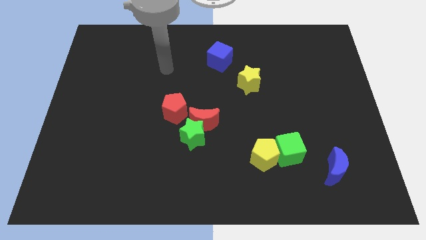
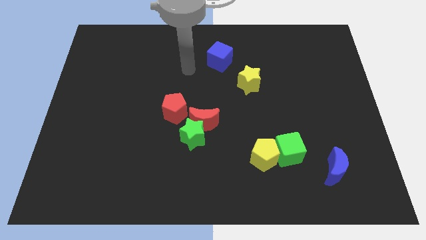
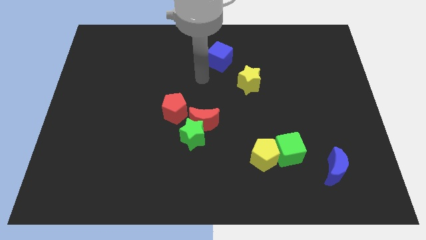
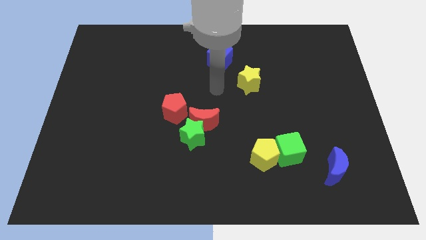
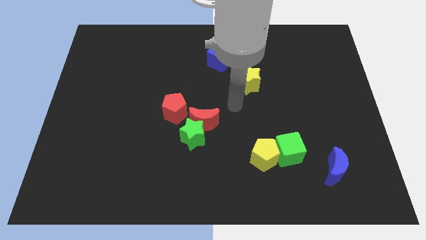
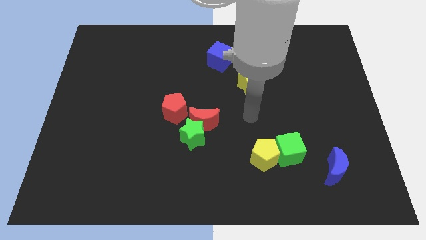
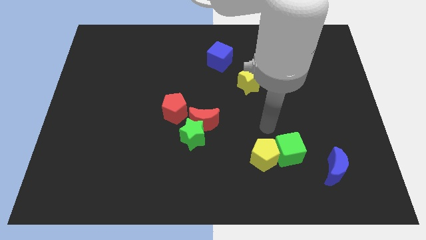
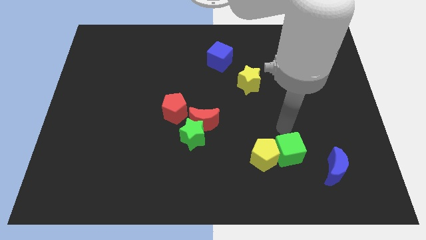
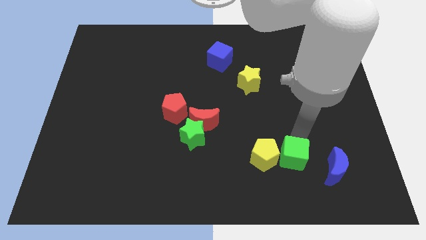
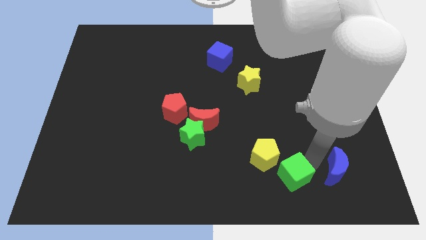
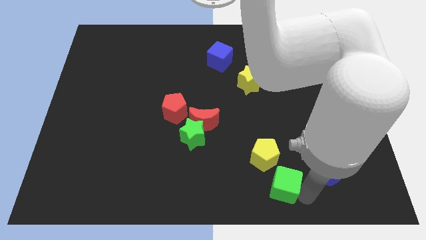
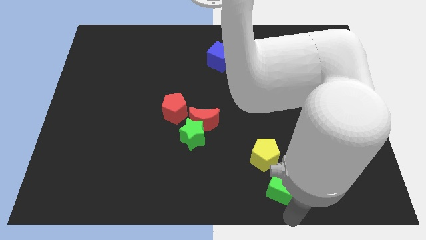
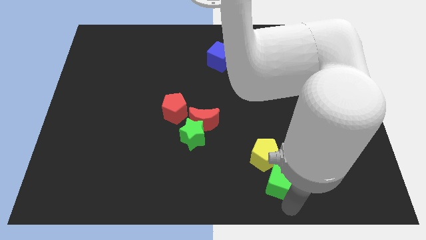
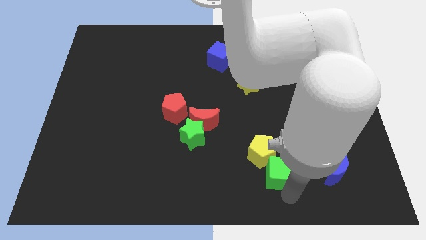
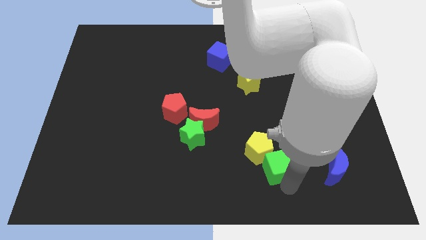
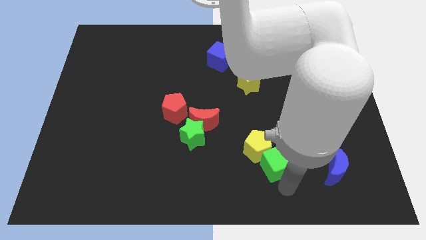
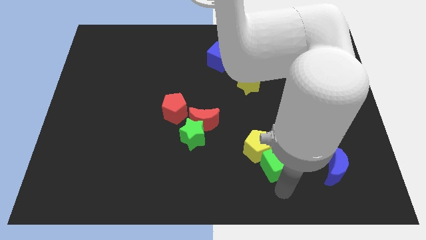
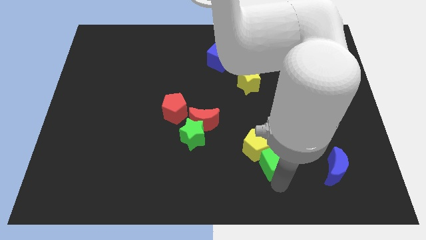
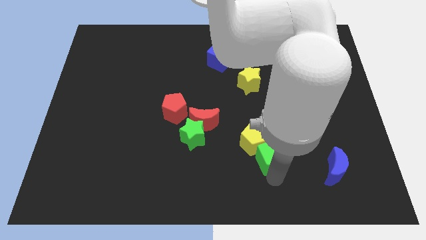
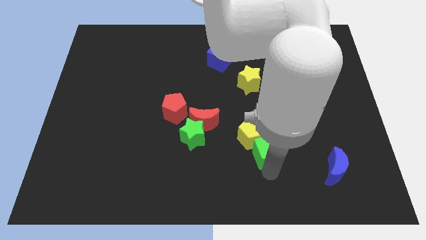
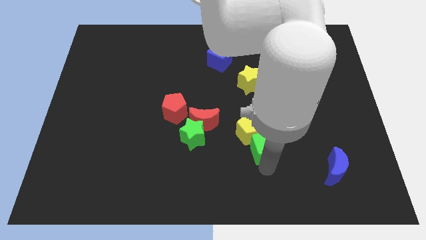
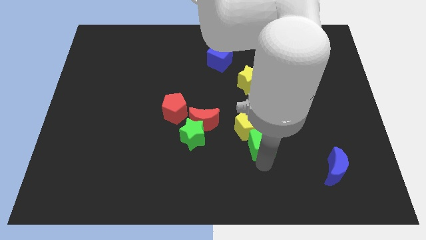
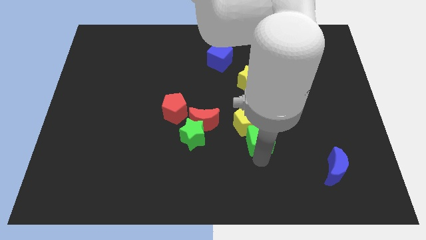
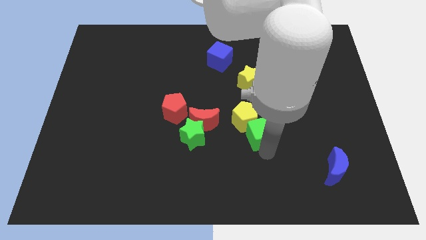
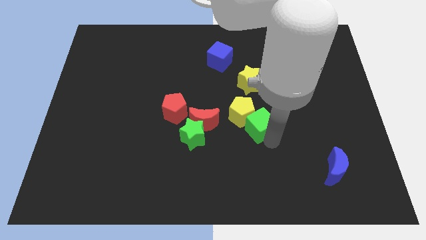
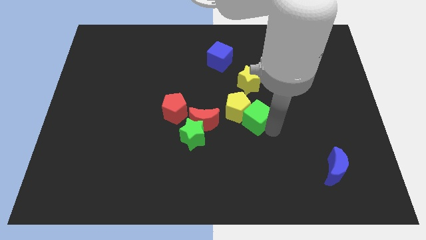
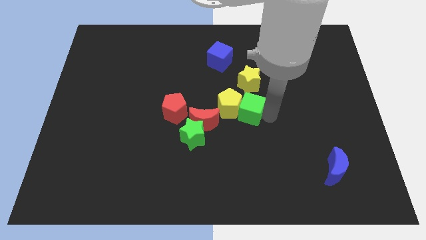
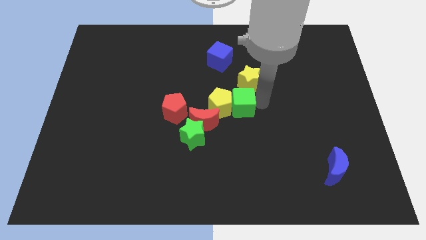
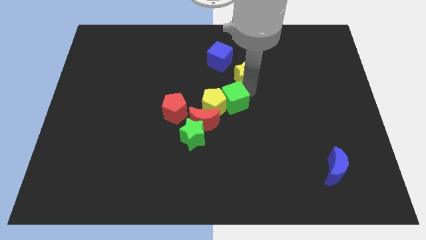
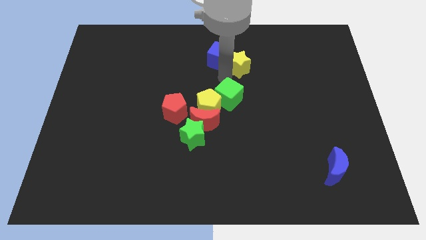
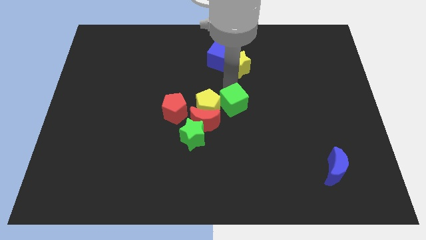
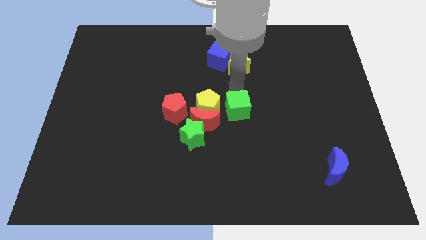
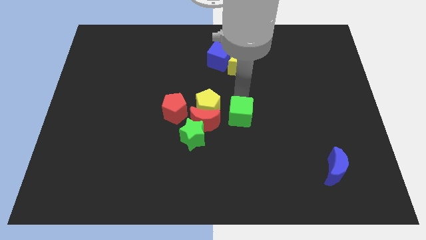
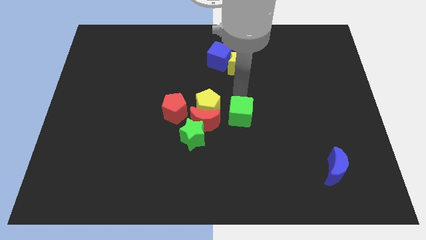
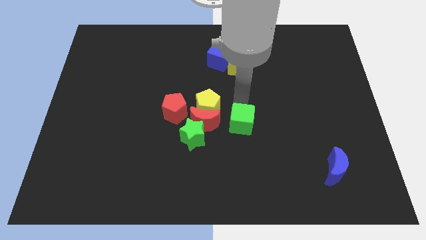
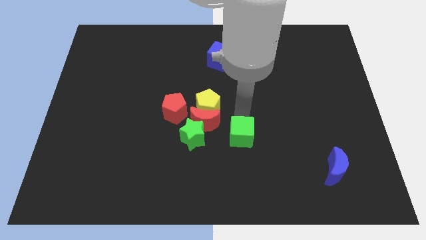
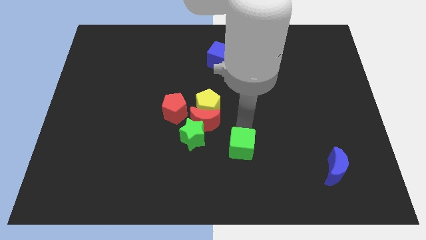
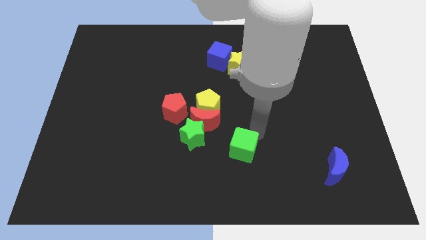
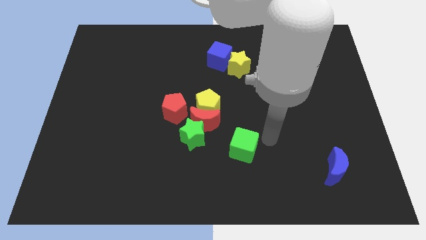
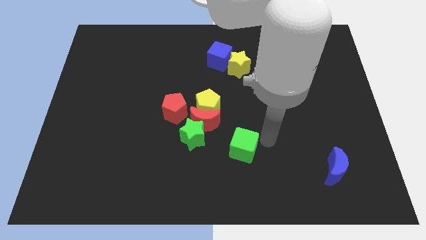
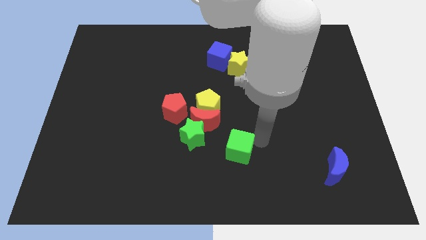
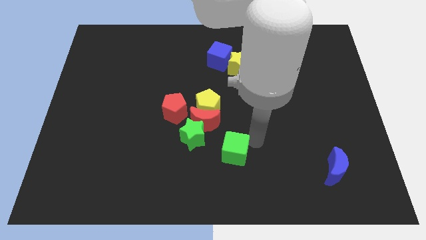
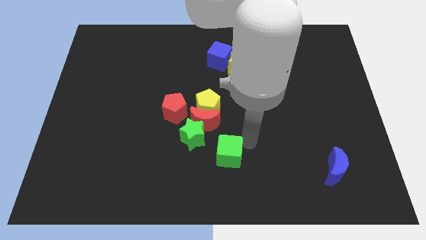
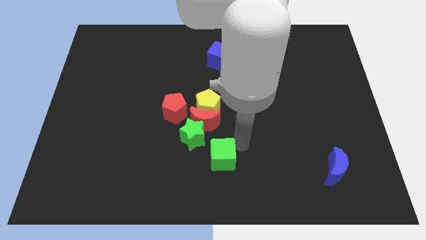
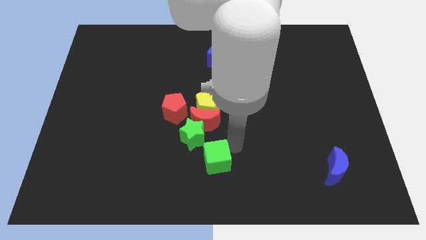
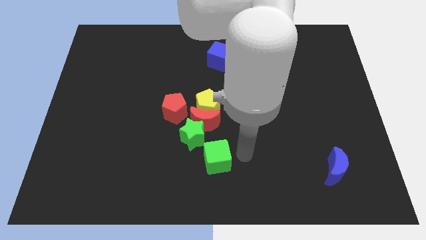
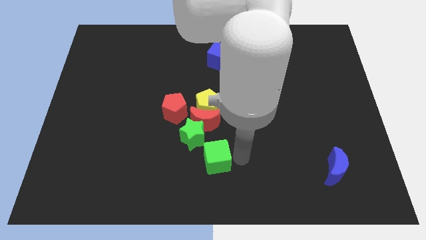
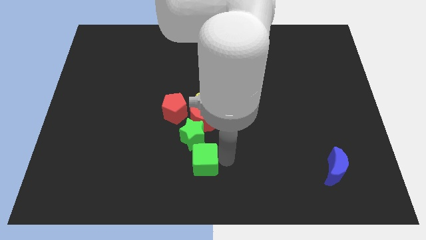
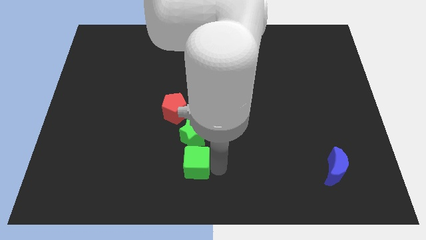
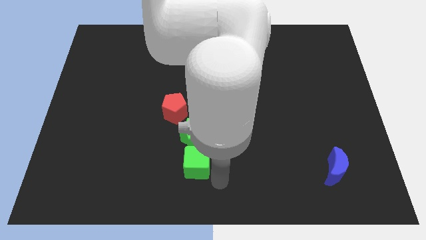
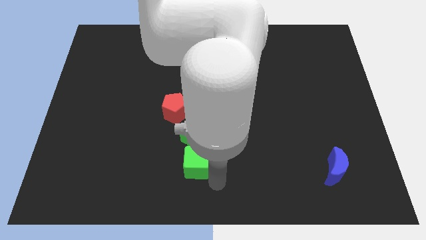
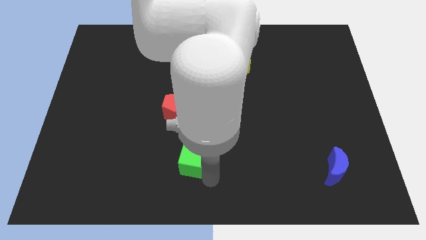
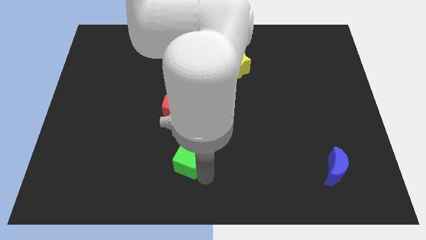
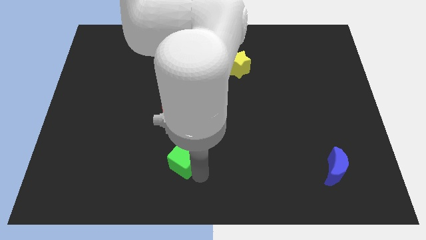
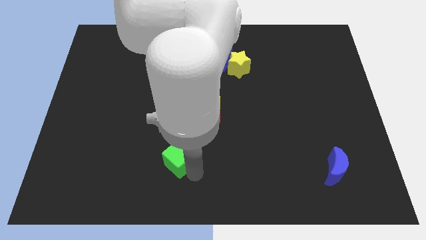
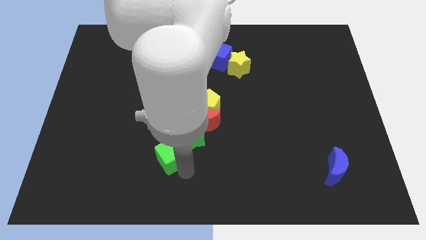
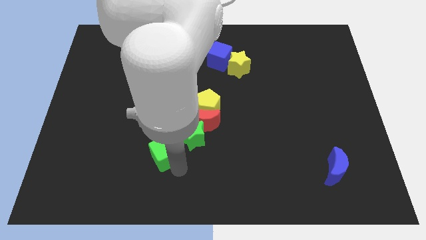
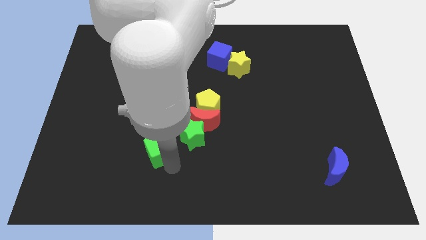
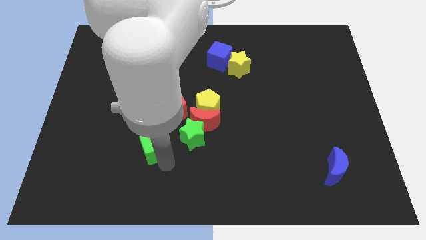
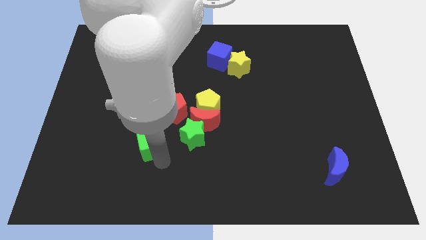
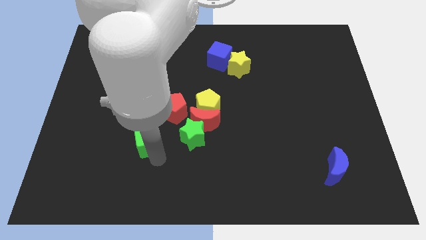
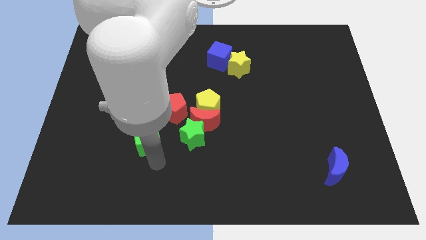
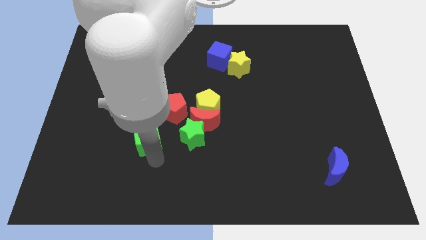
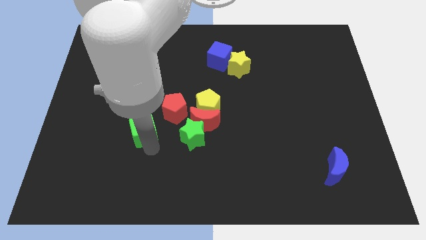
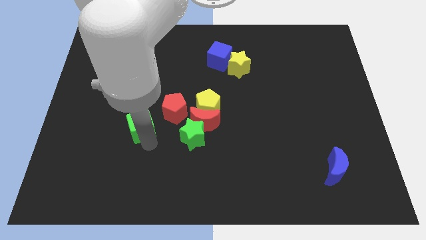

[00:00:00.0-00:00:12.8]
put the green cube to the left side of the red pentagon

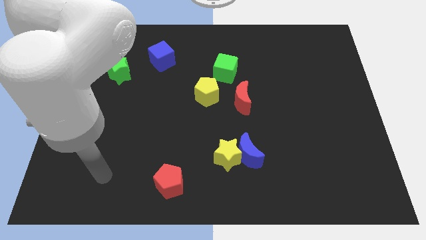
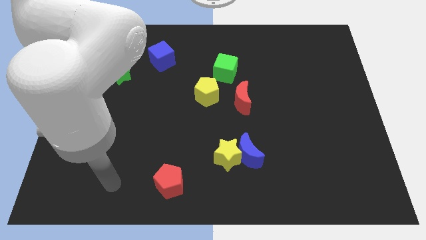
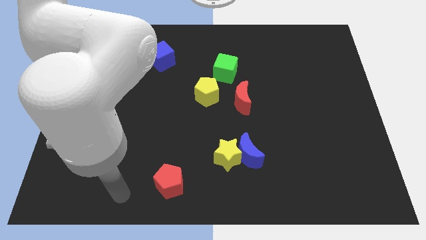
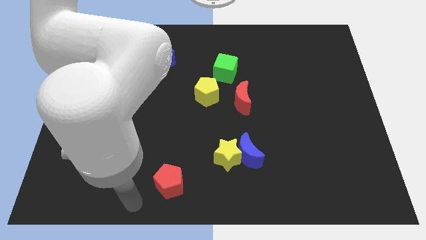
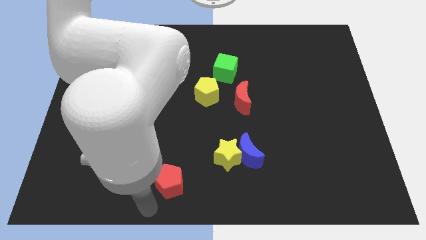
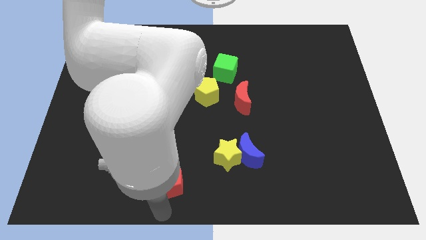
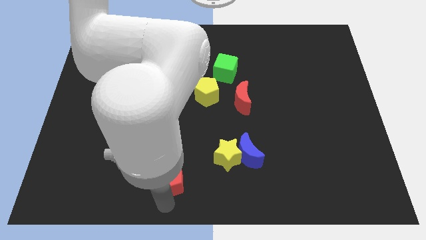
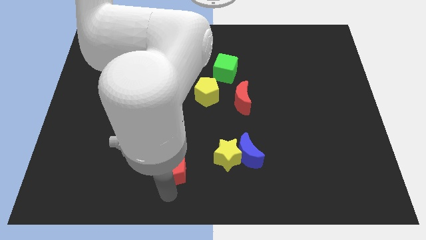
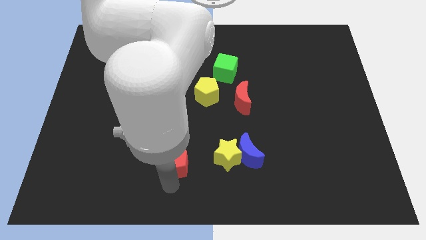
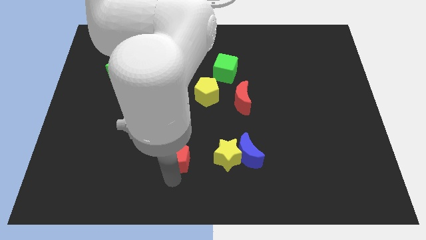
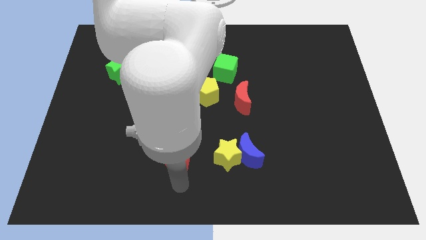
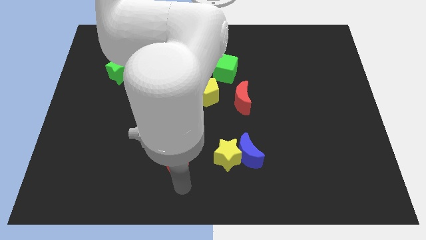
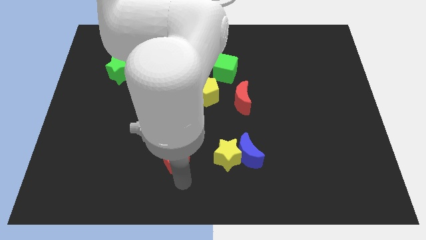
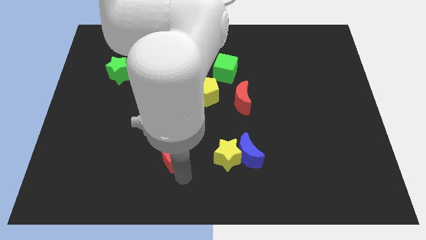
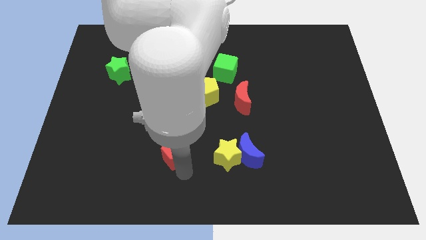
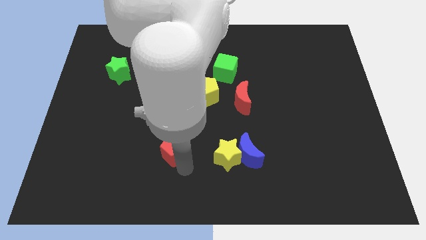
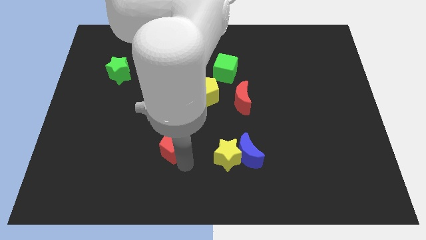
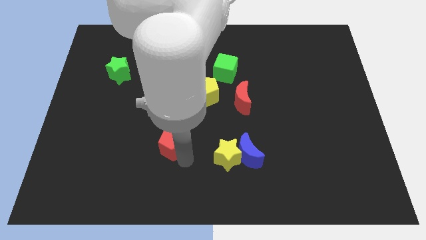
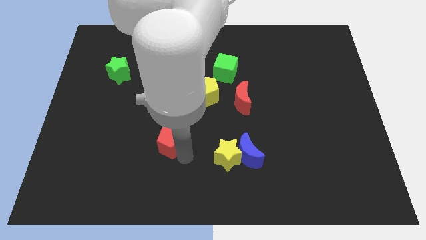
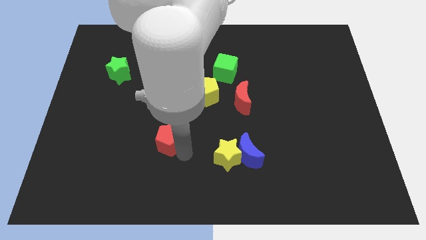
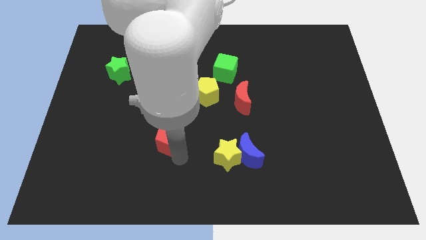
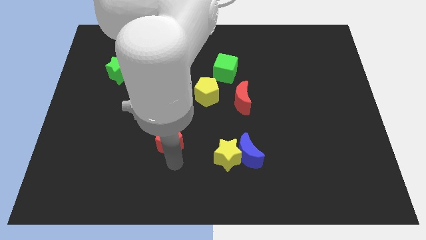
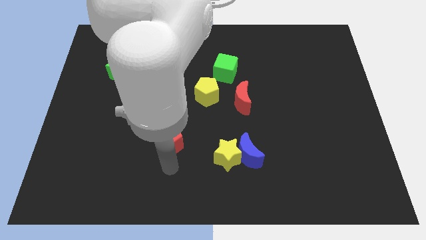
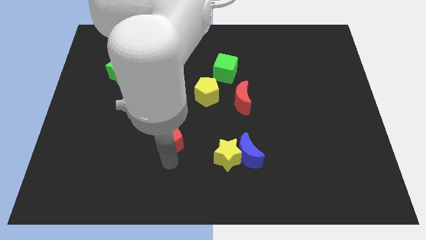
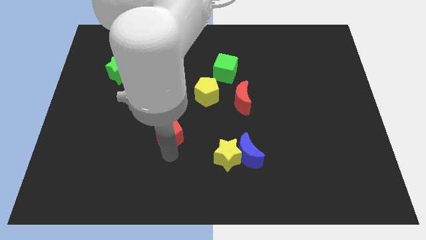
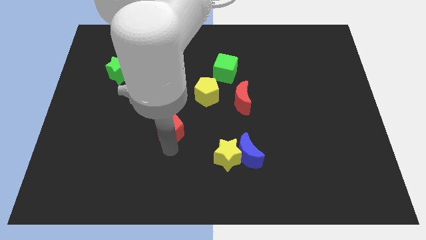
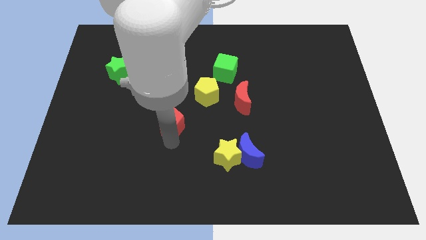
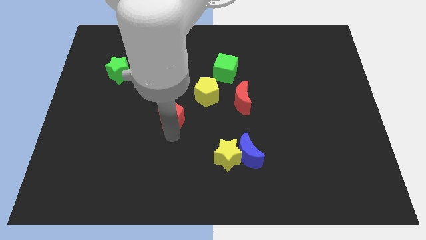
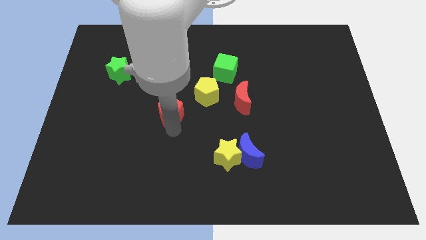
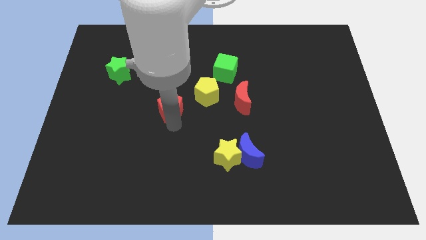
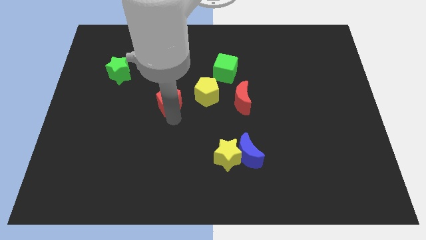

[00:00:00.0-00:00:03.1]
slide the red pentagon to the bottom side of the blue cube
